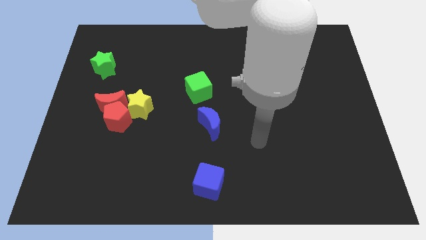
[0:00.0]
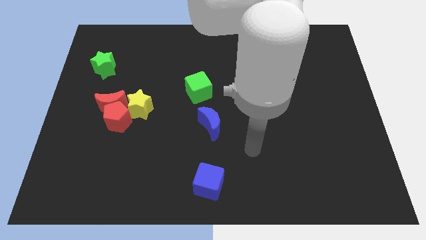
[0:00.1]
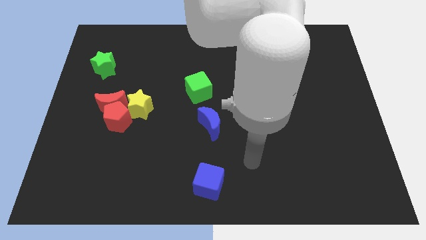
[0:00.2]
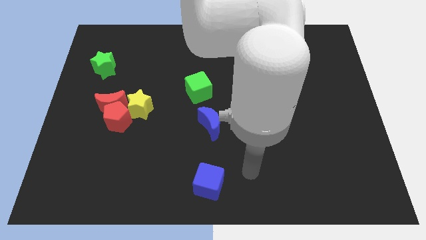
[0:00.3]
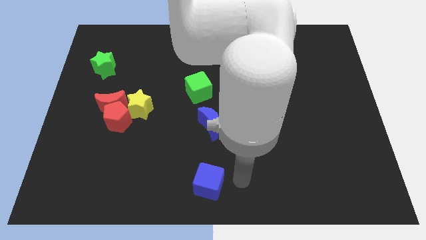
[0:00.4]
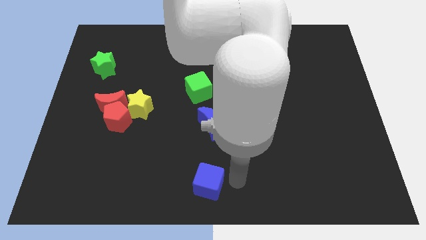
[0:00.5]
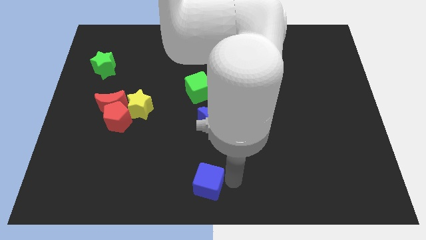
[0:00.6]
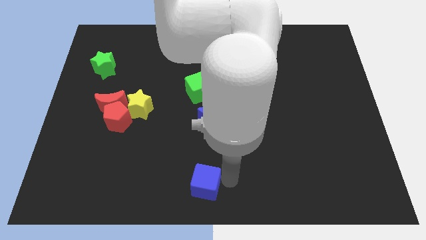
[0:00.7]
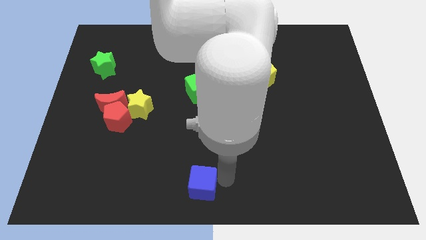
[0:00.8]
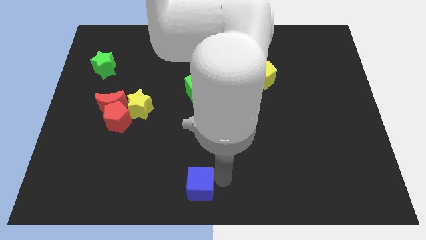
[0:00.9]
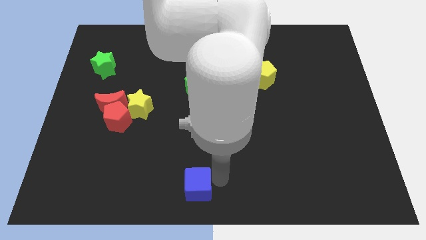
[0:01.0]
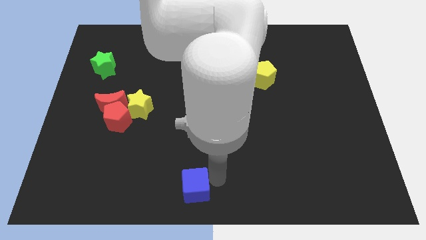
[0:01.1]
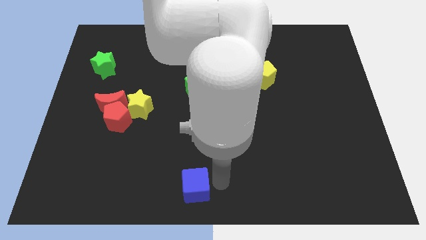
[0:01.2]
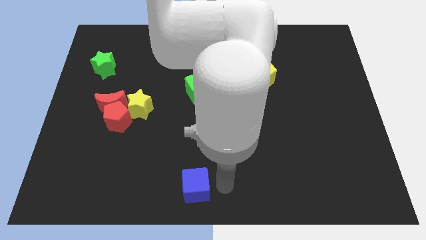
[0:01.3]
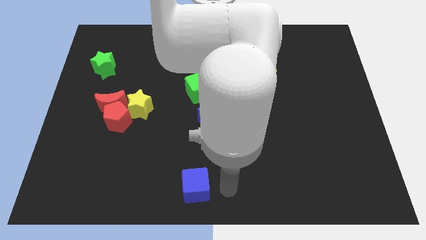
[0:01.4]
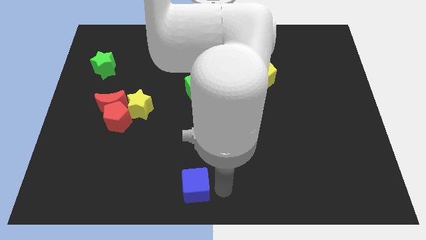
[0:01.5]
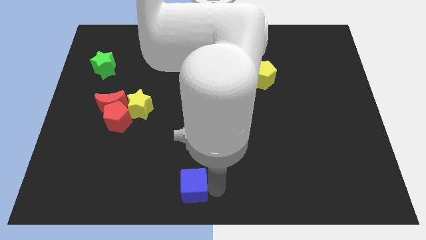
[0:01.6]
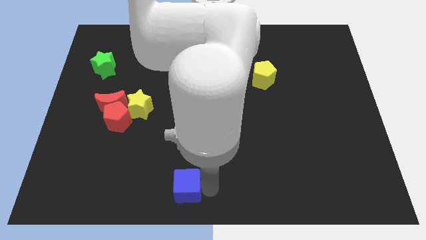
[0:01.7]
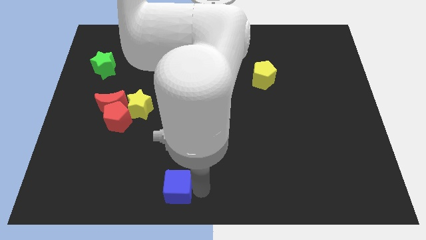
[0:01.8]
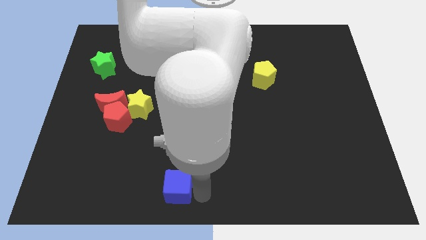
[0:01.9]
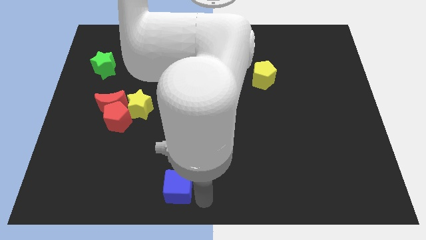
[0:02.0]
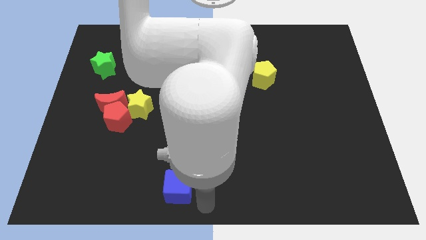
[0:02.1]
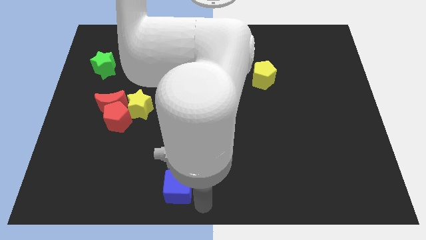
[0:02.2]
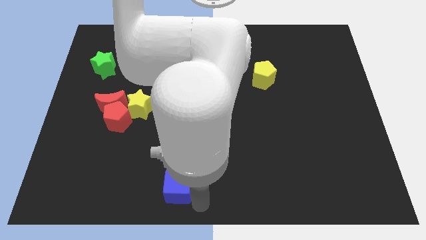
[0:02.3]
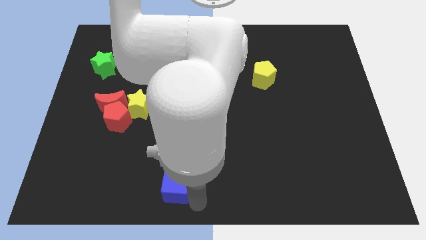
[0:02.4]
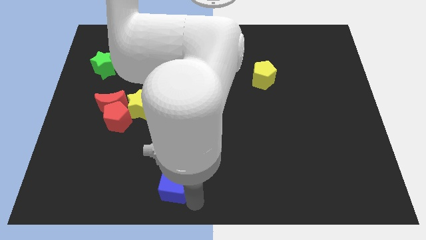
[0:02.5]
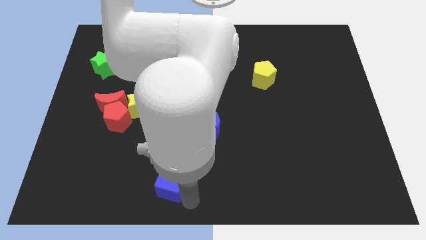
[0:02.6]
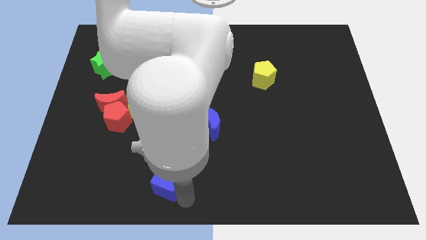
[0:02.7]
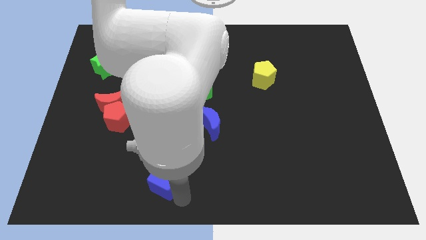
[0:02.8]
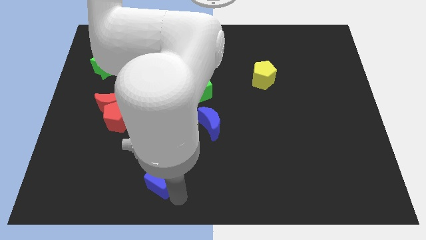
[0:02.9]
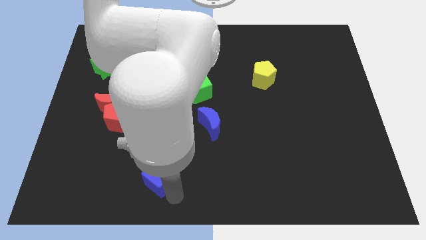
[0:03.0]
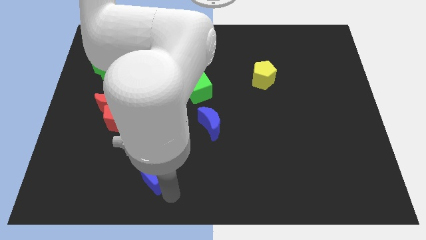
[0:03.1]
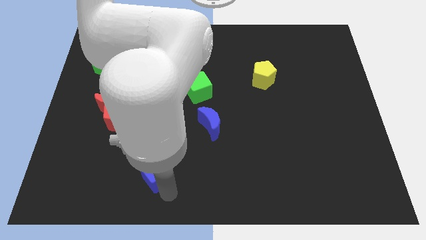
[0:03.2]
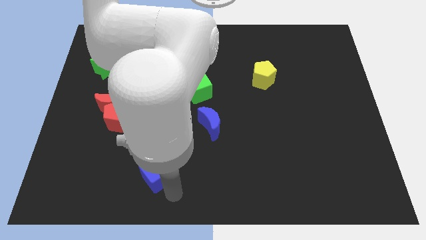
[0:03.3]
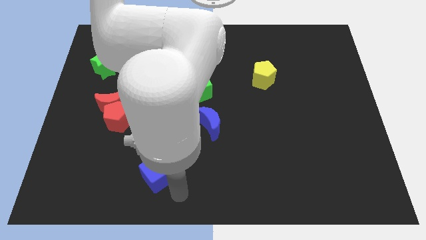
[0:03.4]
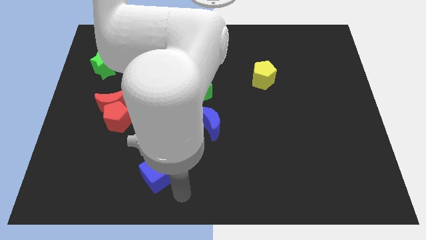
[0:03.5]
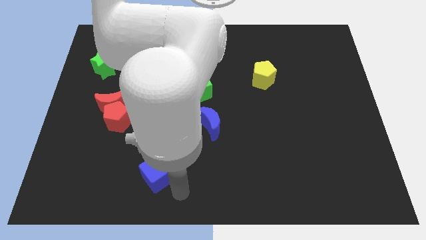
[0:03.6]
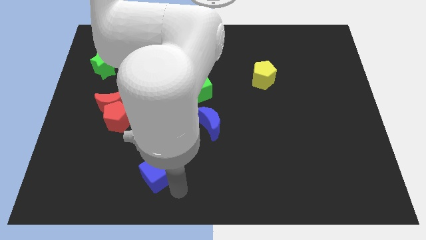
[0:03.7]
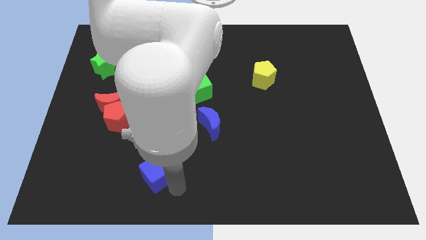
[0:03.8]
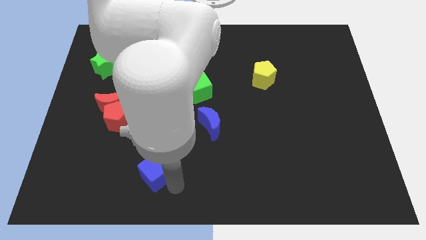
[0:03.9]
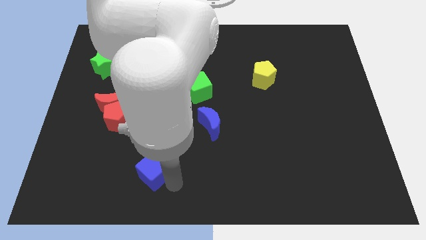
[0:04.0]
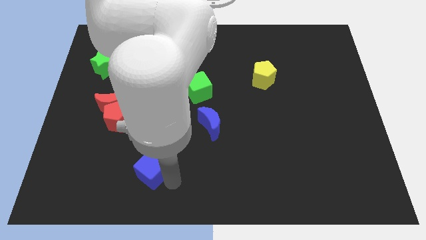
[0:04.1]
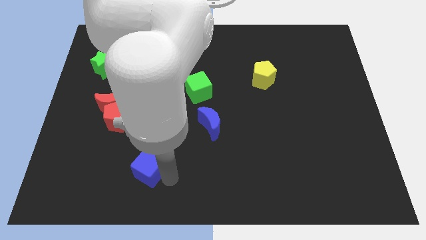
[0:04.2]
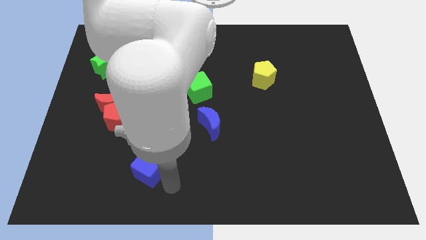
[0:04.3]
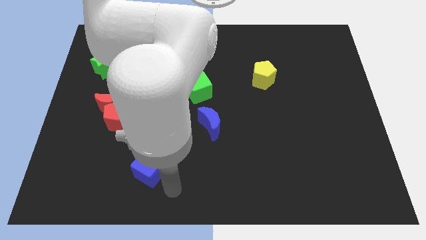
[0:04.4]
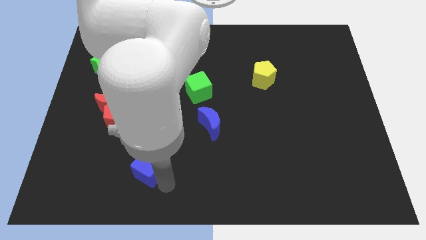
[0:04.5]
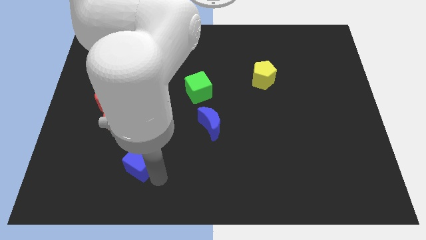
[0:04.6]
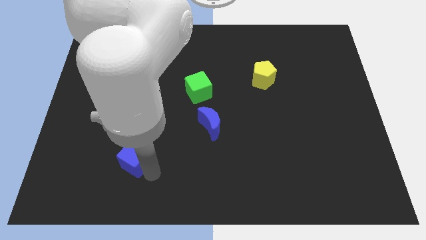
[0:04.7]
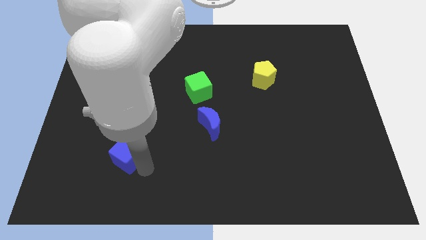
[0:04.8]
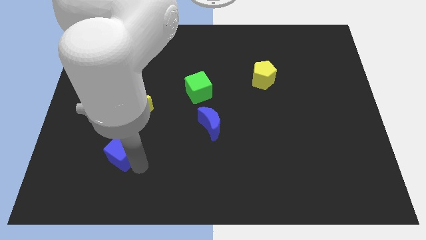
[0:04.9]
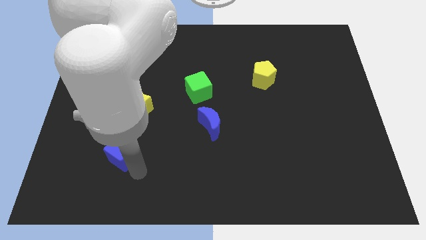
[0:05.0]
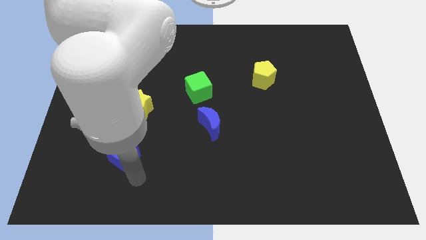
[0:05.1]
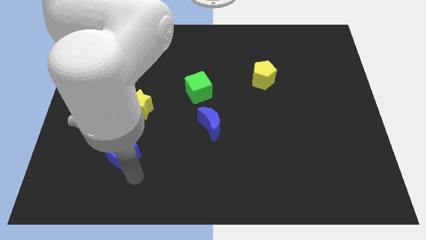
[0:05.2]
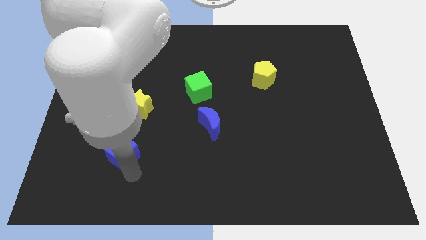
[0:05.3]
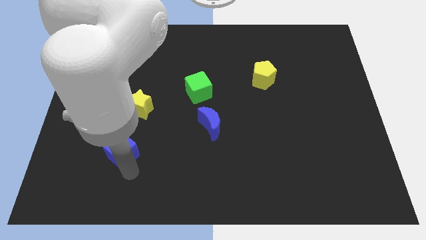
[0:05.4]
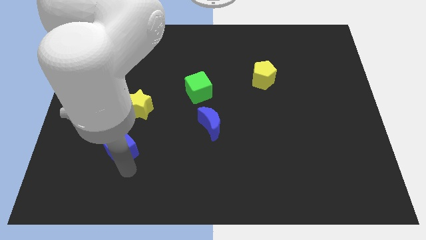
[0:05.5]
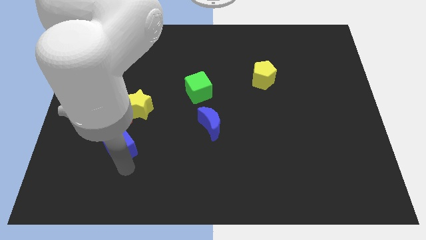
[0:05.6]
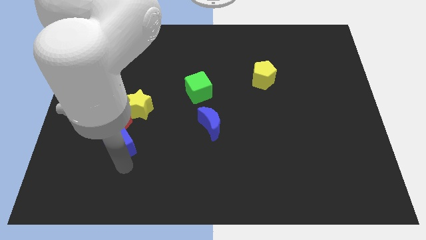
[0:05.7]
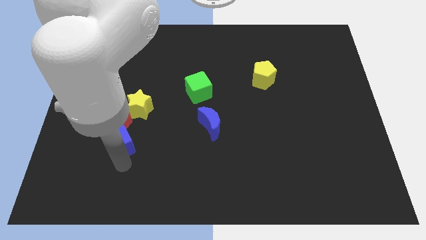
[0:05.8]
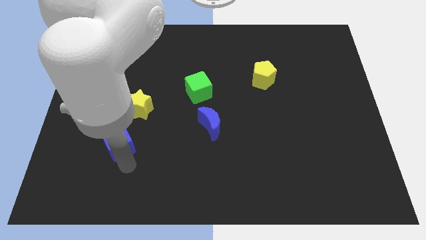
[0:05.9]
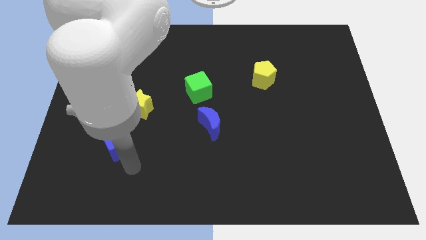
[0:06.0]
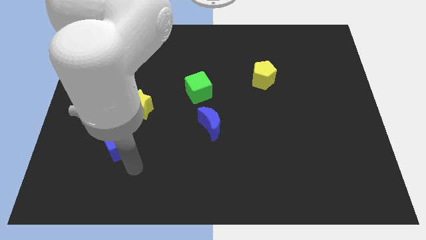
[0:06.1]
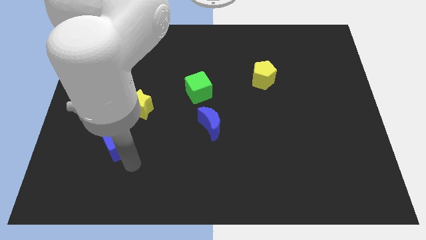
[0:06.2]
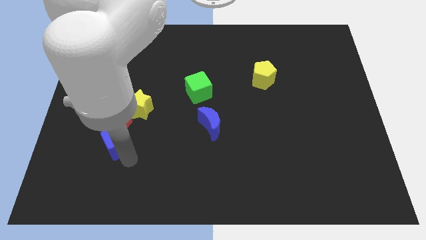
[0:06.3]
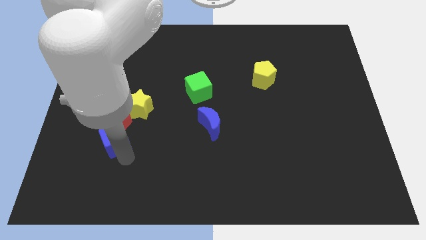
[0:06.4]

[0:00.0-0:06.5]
put the blue cube towards the red pentagon

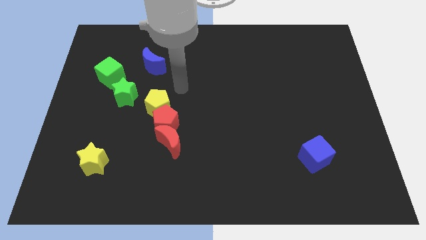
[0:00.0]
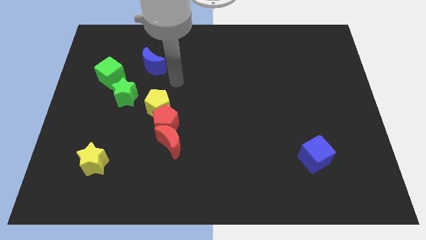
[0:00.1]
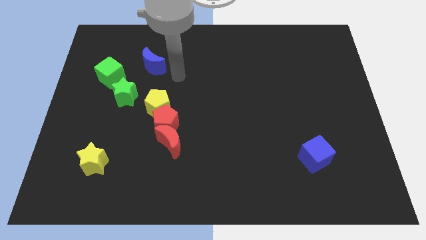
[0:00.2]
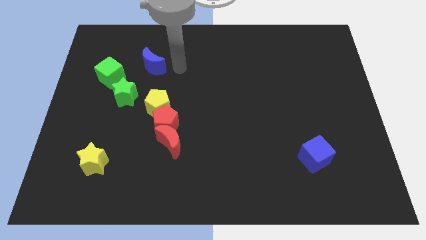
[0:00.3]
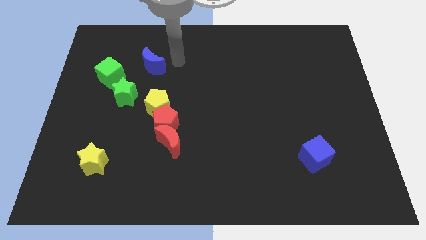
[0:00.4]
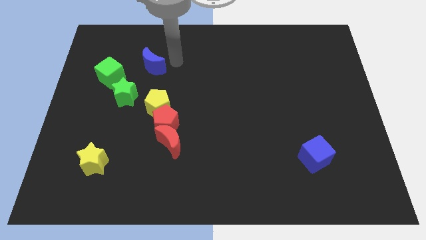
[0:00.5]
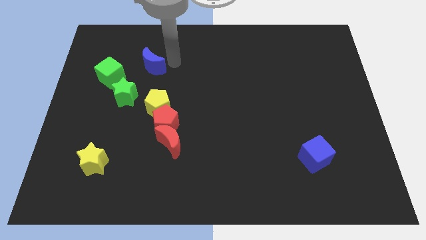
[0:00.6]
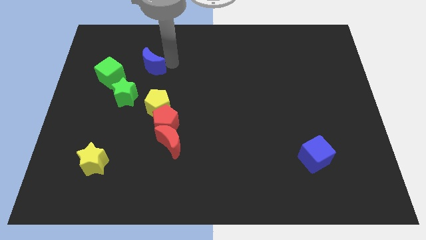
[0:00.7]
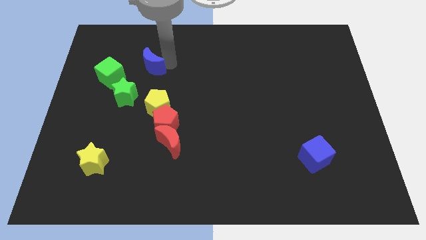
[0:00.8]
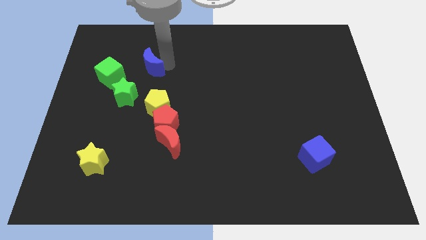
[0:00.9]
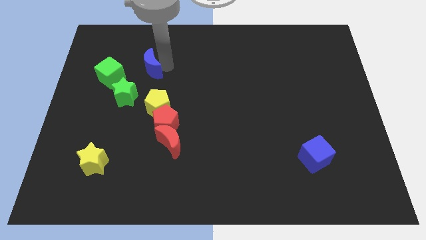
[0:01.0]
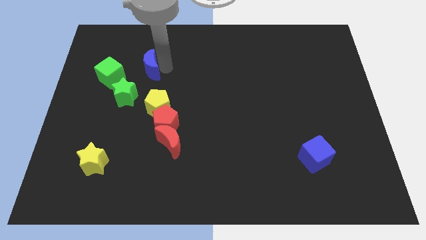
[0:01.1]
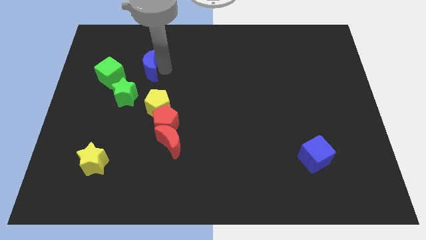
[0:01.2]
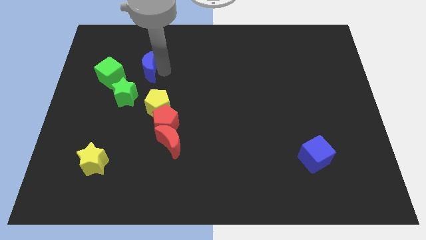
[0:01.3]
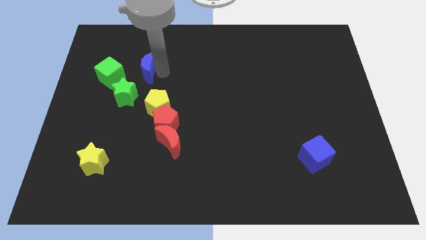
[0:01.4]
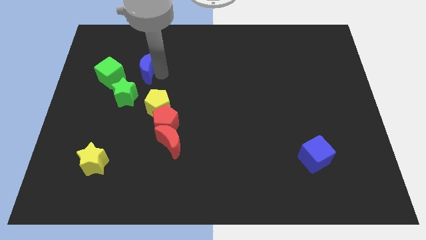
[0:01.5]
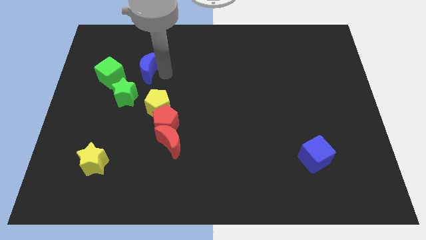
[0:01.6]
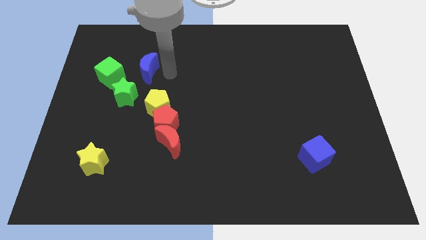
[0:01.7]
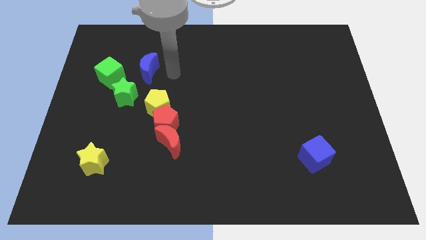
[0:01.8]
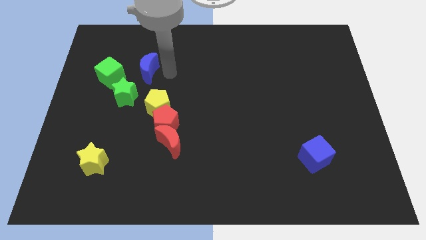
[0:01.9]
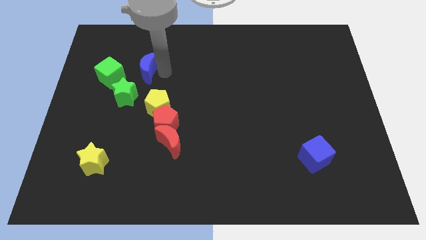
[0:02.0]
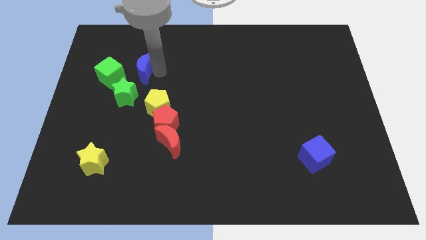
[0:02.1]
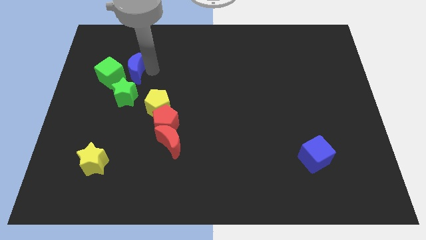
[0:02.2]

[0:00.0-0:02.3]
push the blue moon close to the green cube
